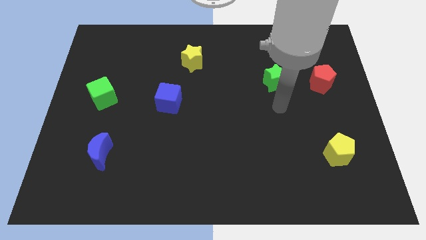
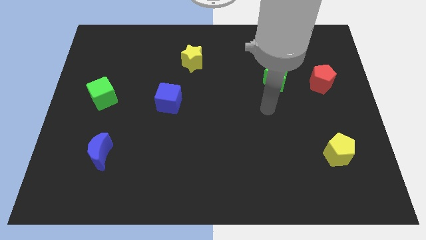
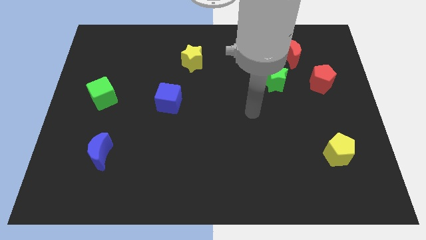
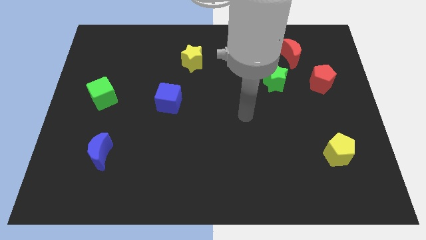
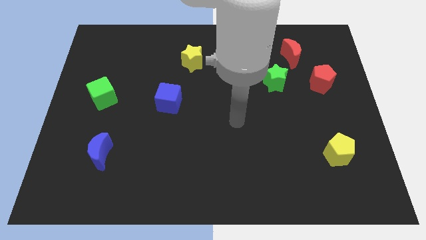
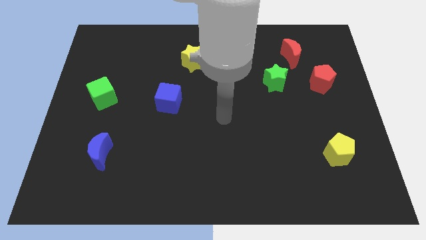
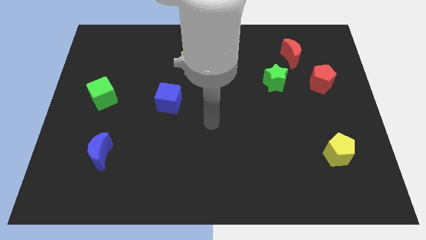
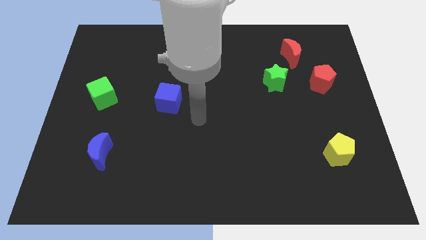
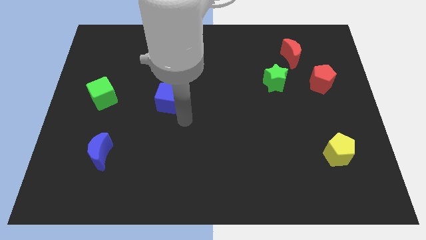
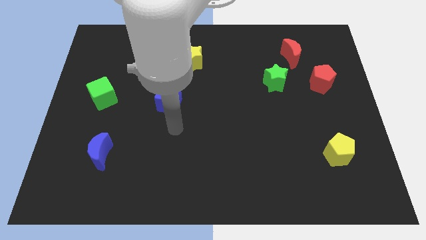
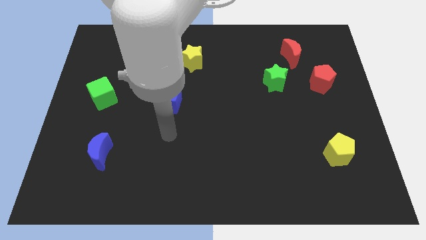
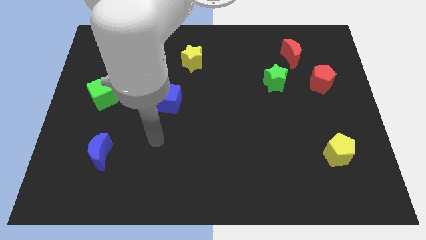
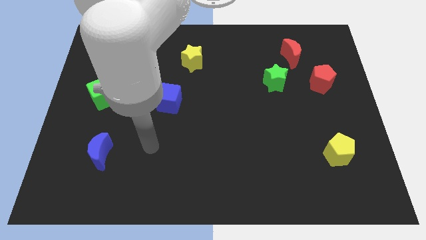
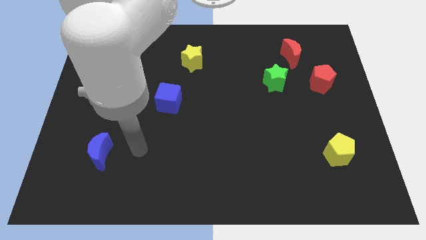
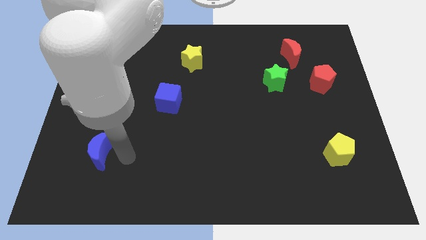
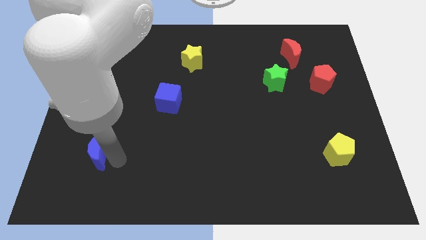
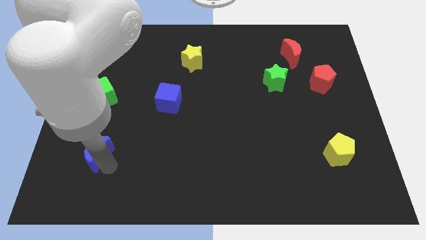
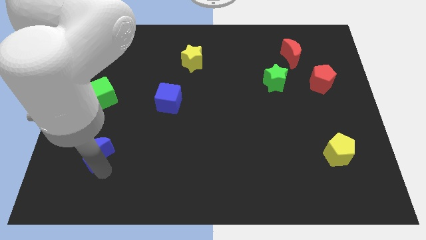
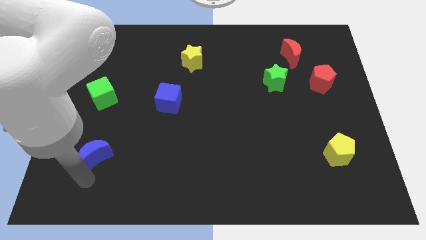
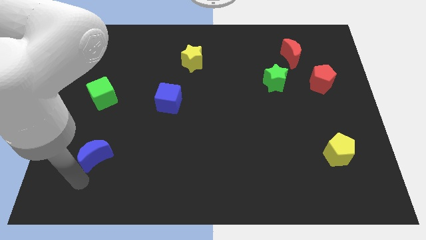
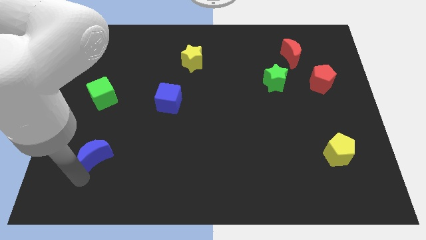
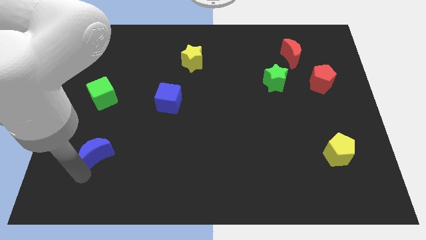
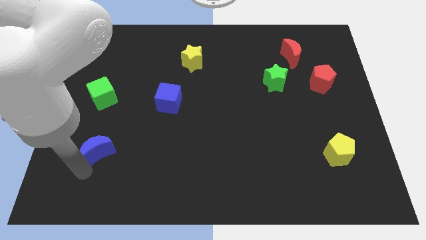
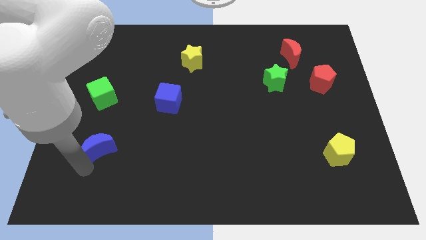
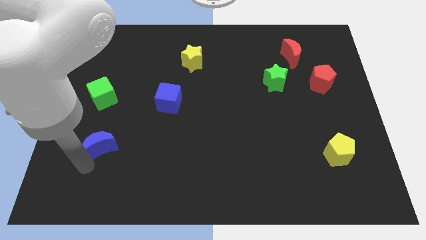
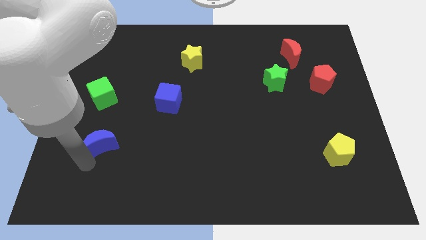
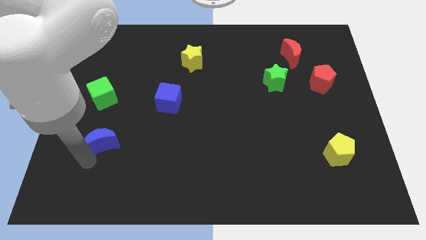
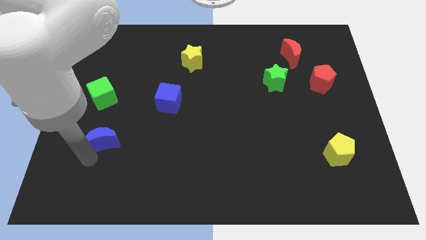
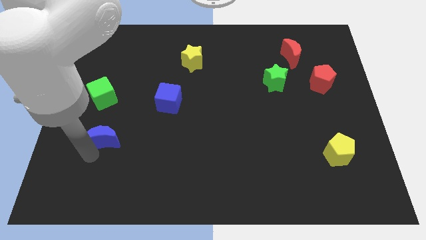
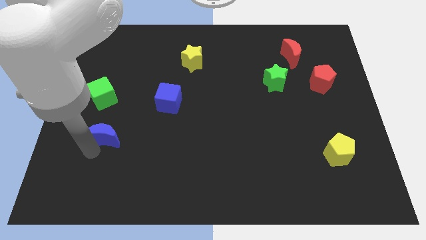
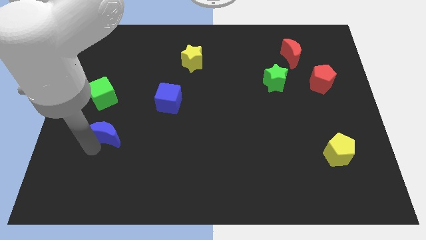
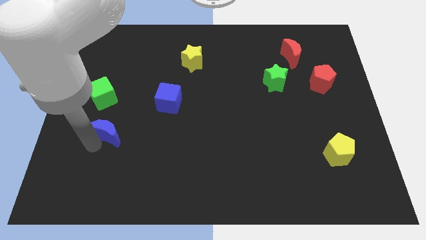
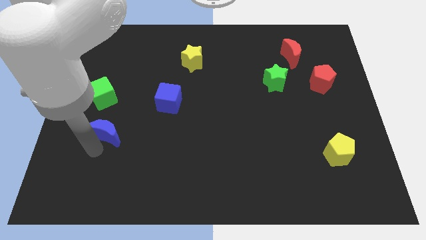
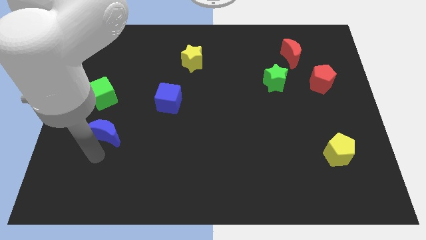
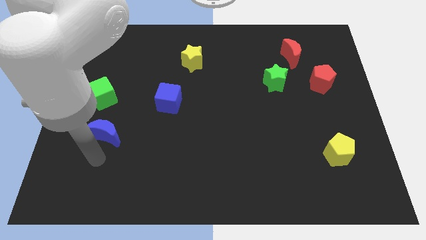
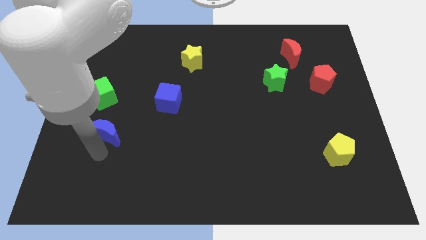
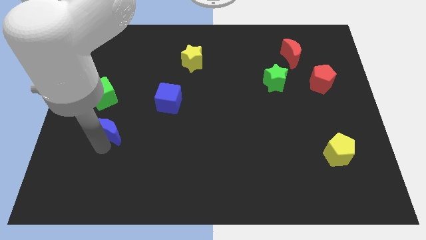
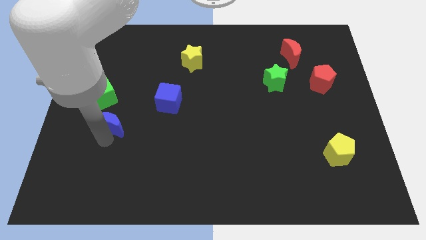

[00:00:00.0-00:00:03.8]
slide the blue moon slightly up

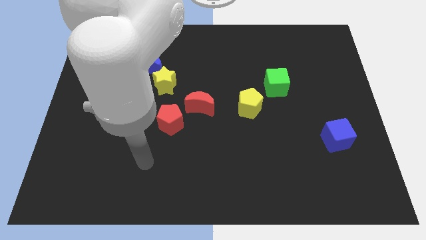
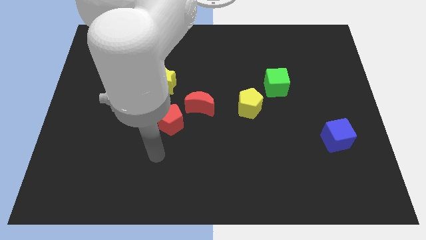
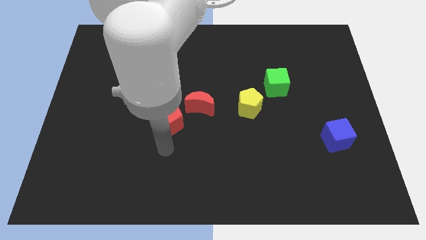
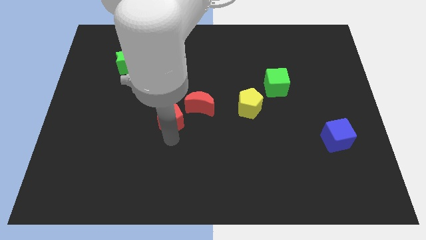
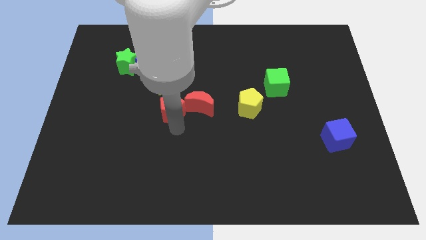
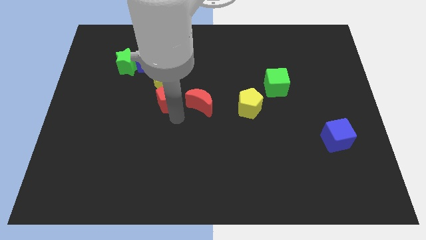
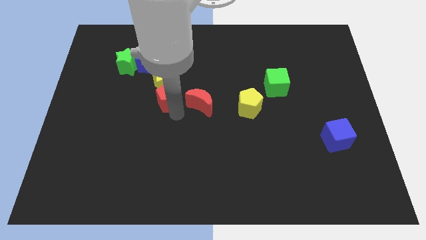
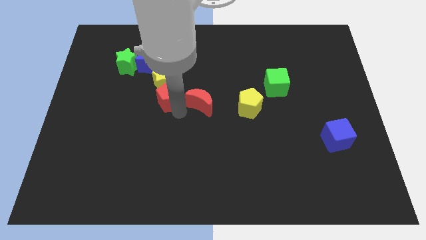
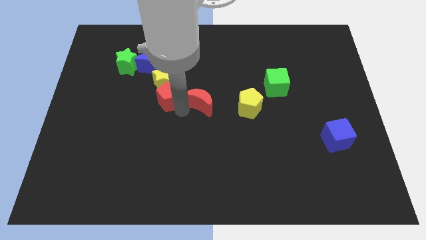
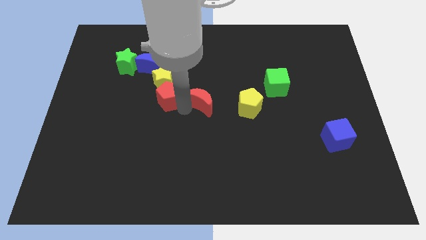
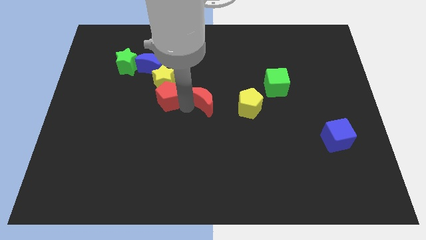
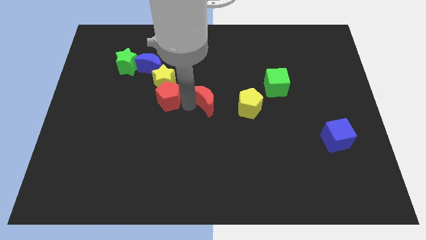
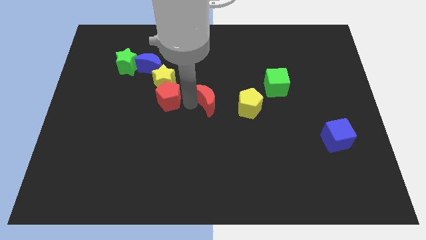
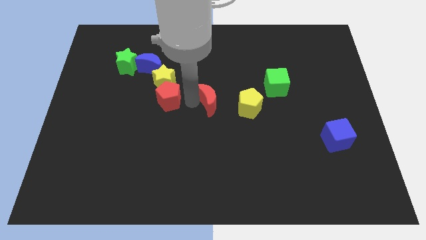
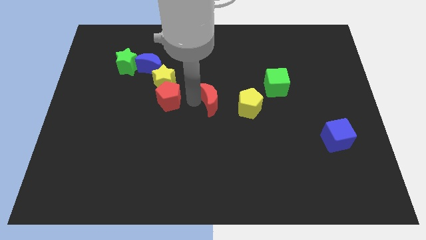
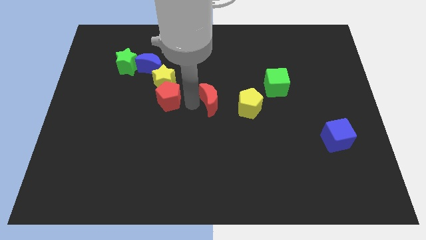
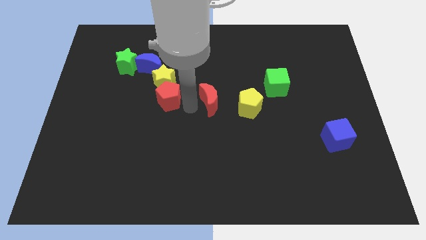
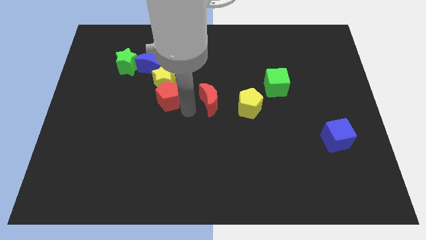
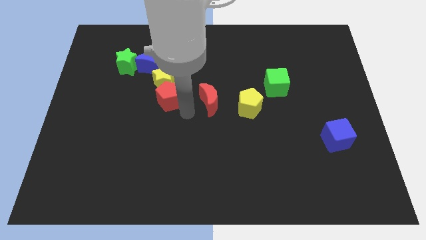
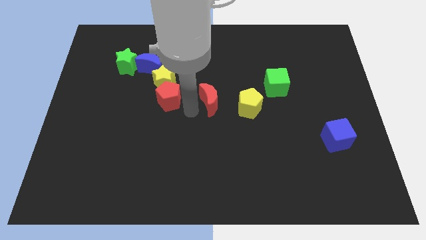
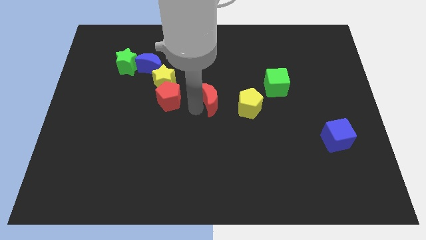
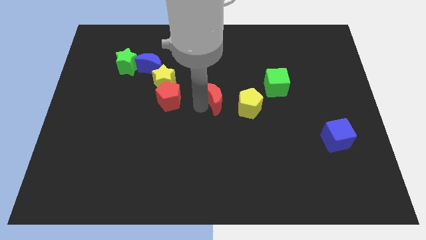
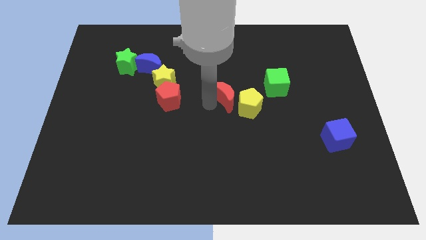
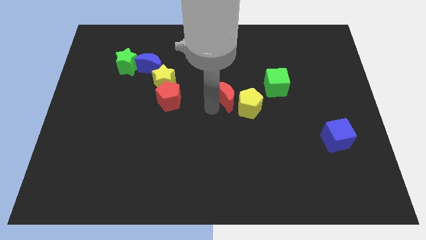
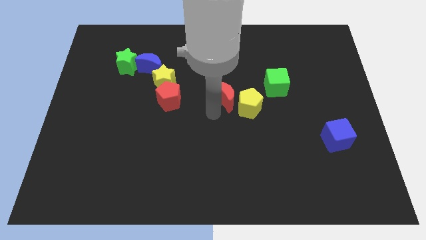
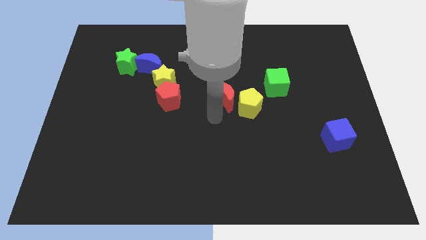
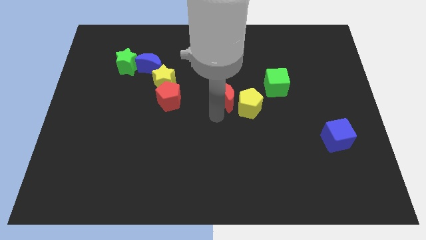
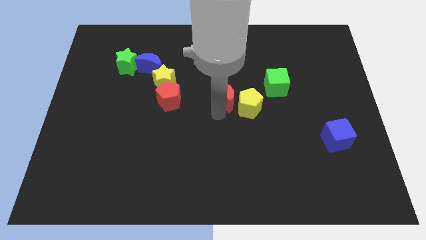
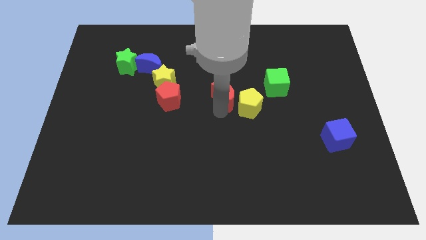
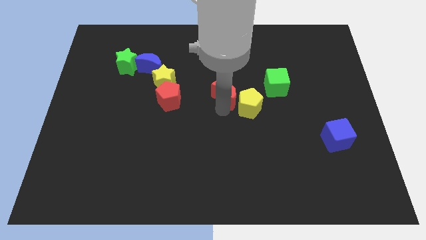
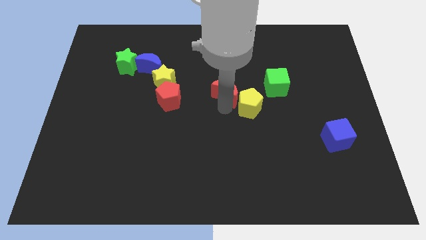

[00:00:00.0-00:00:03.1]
slightly slide the red moon upwards and to the right

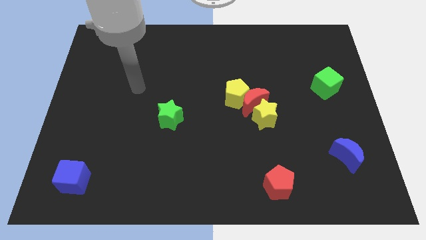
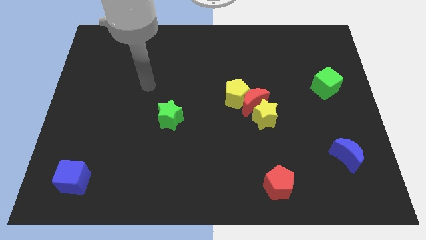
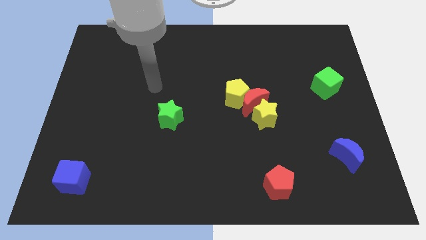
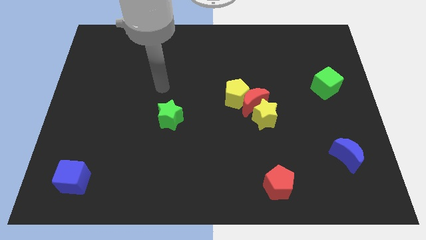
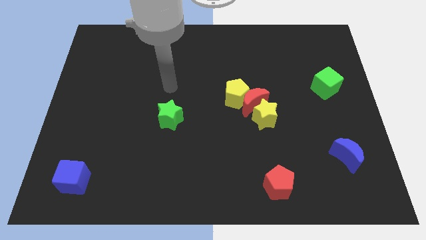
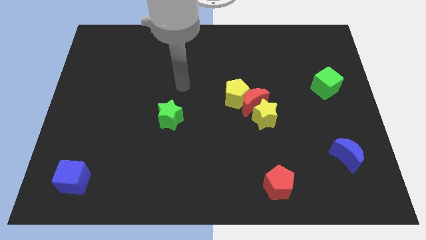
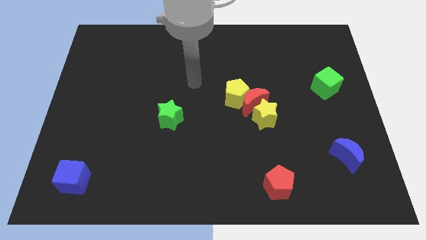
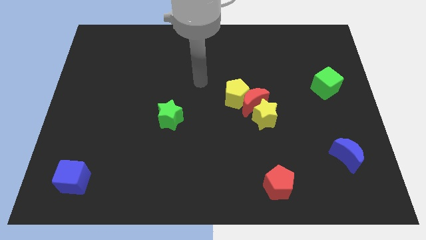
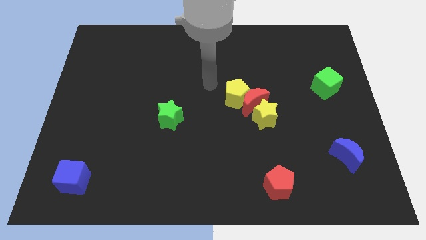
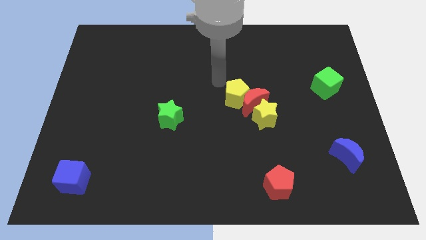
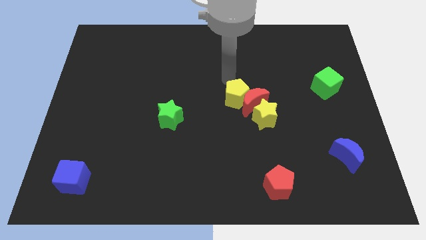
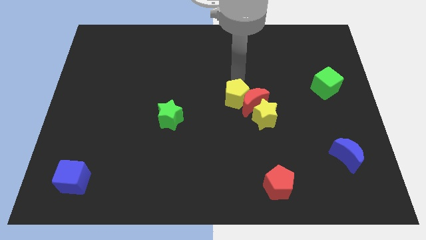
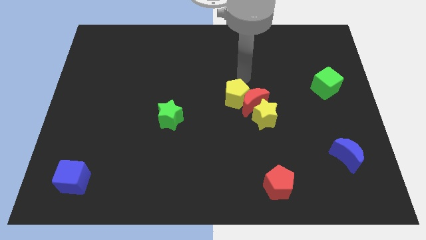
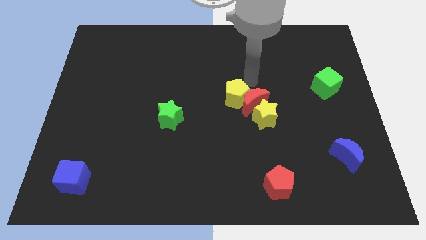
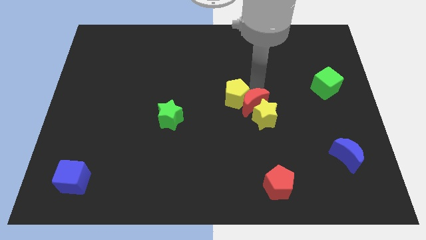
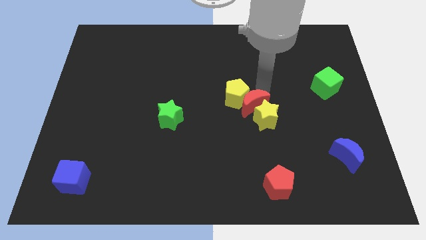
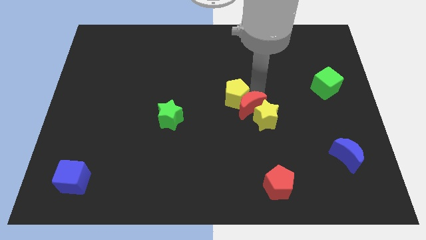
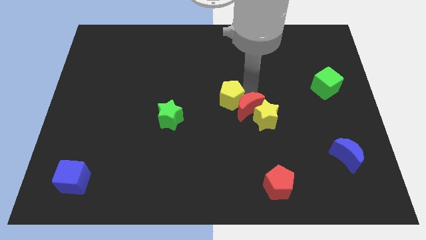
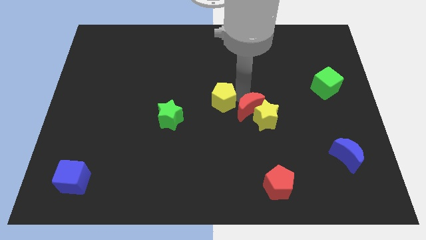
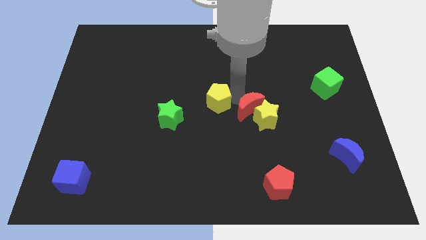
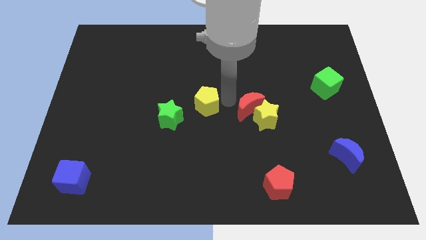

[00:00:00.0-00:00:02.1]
move the yellow pentagon left slightly
